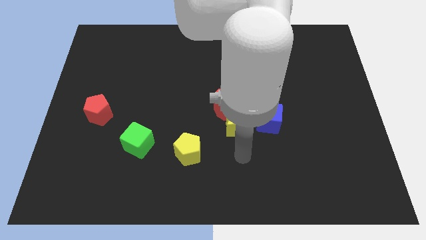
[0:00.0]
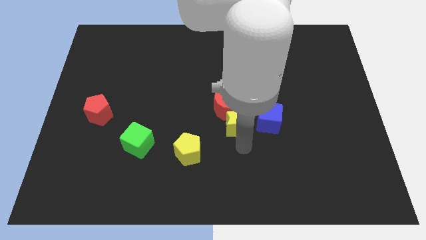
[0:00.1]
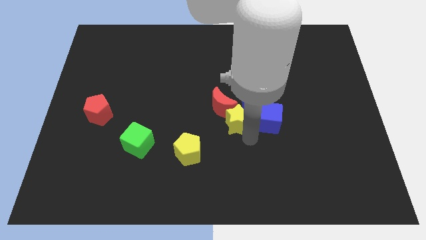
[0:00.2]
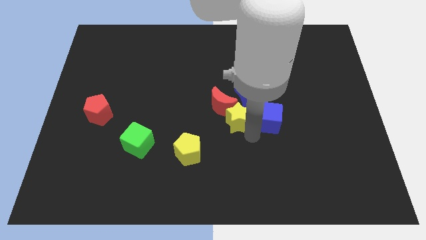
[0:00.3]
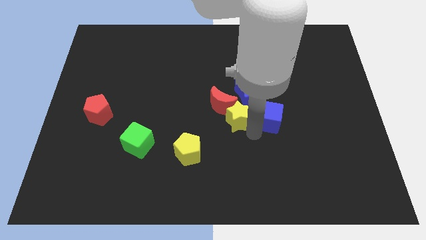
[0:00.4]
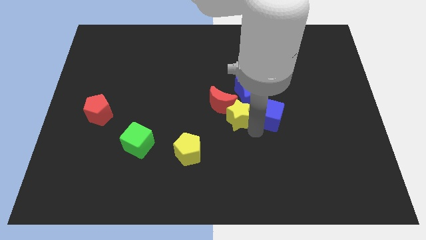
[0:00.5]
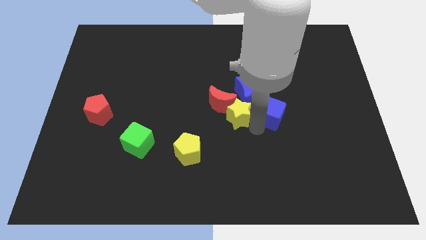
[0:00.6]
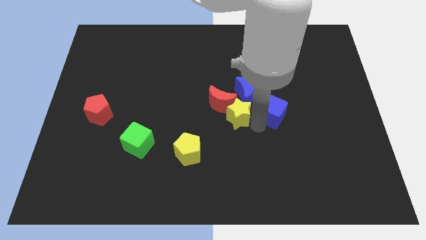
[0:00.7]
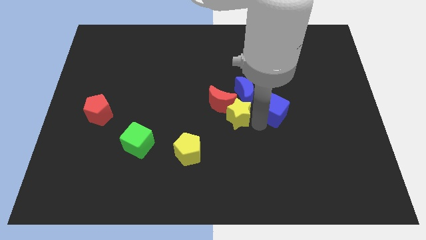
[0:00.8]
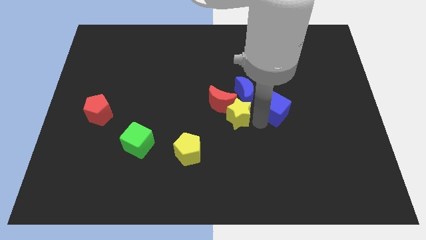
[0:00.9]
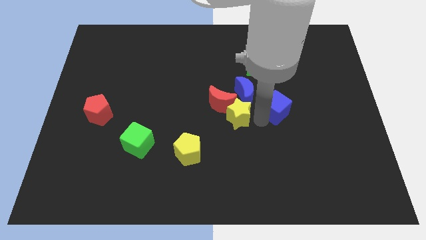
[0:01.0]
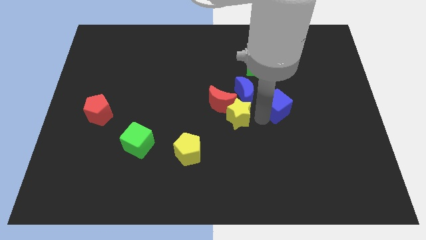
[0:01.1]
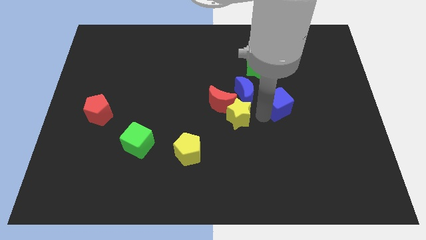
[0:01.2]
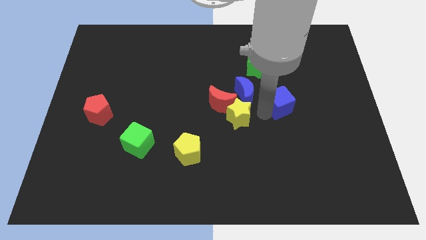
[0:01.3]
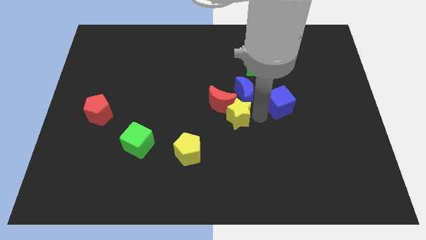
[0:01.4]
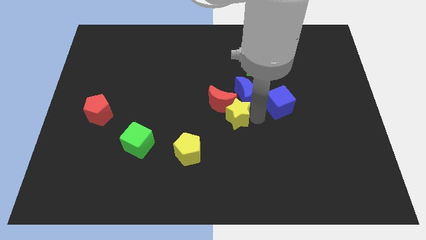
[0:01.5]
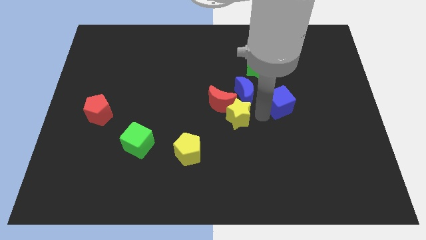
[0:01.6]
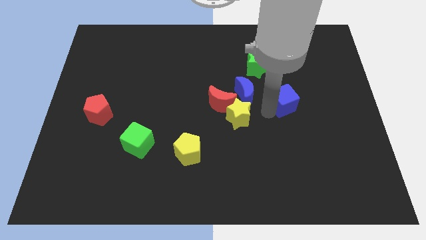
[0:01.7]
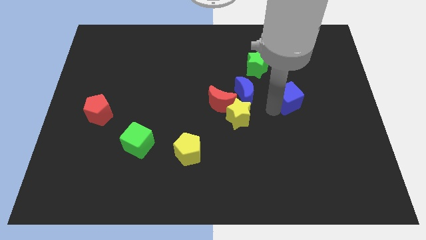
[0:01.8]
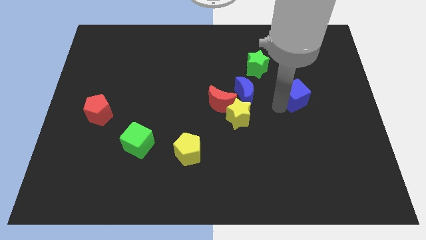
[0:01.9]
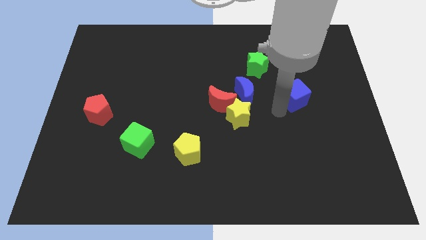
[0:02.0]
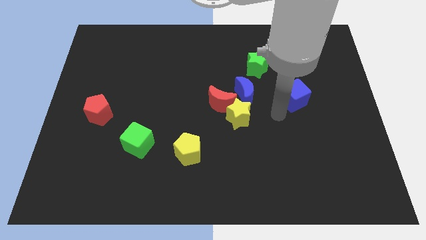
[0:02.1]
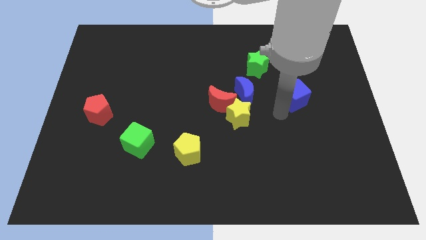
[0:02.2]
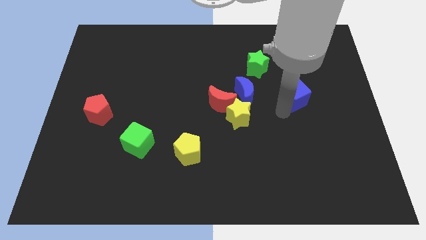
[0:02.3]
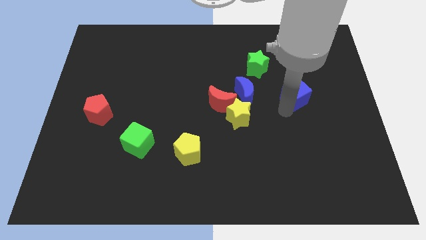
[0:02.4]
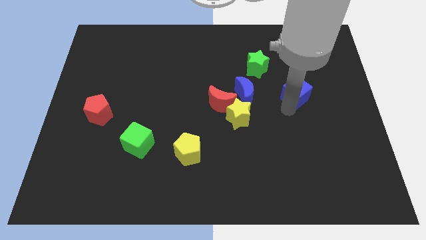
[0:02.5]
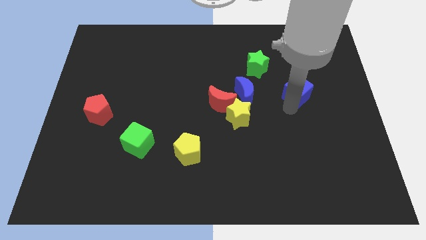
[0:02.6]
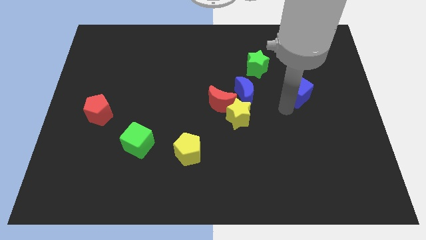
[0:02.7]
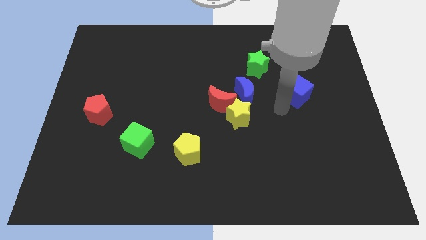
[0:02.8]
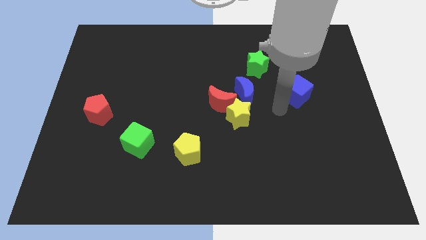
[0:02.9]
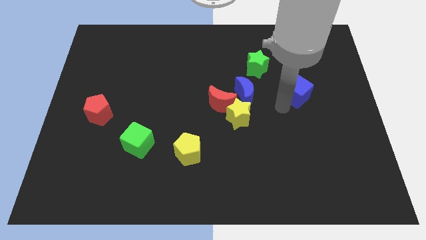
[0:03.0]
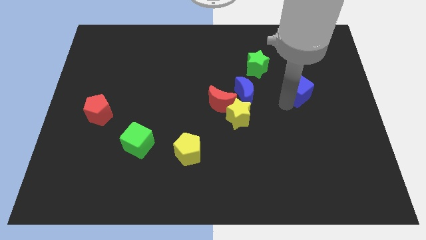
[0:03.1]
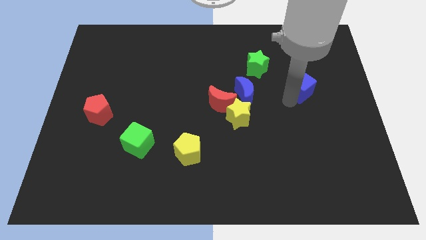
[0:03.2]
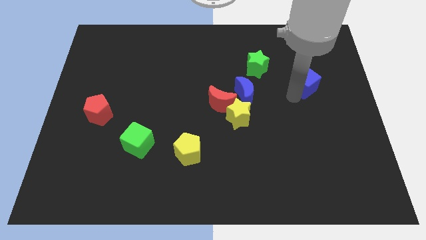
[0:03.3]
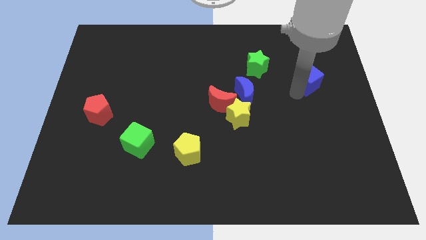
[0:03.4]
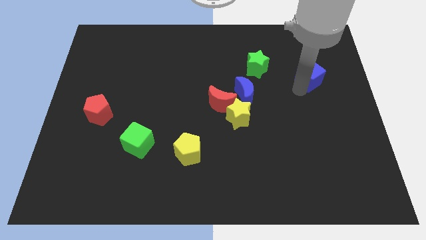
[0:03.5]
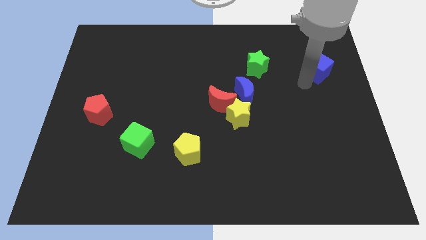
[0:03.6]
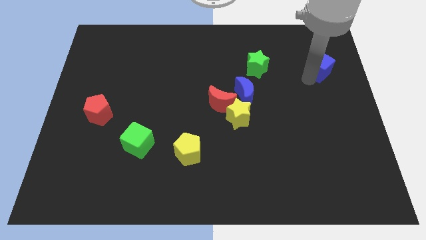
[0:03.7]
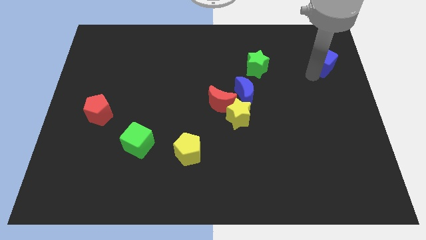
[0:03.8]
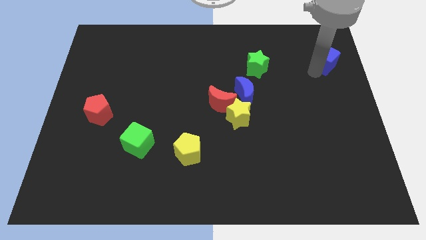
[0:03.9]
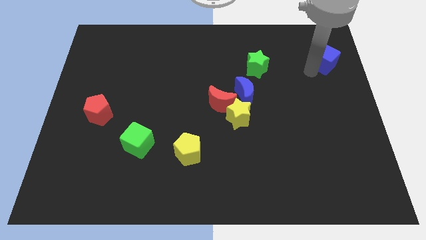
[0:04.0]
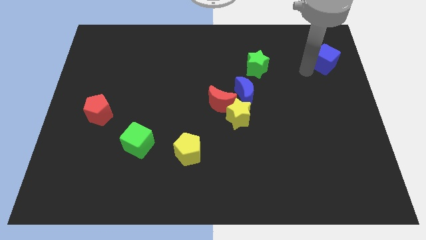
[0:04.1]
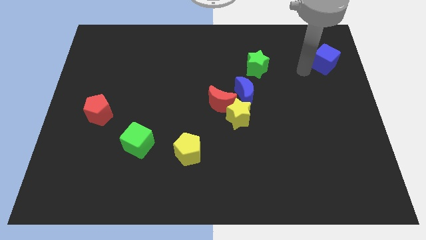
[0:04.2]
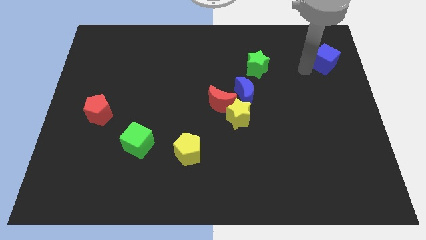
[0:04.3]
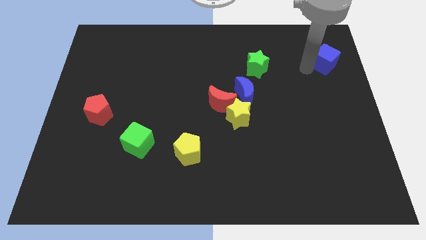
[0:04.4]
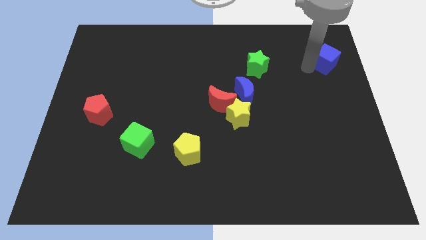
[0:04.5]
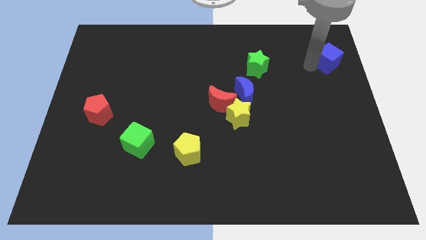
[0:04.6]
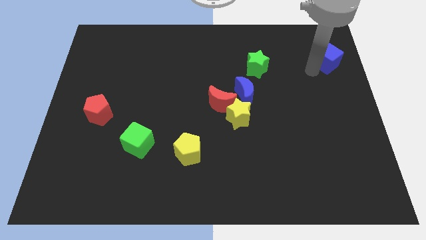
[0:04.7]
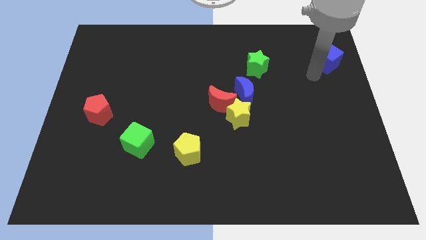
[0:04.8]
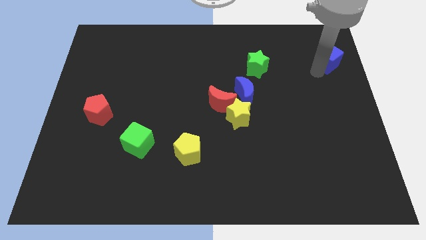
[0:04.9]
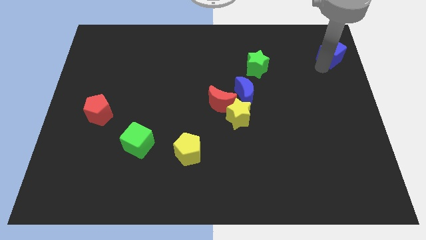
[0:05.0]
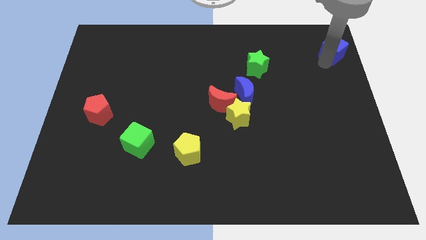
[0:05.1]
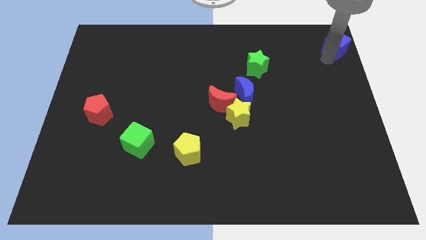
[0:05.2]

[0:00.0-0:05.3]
put the blue cube to the top right

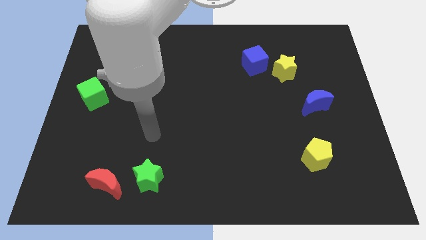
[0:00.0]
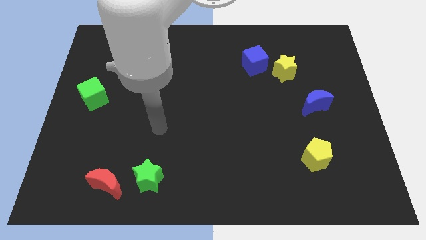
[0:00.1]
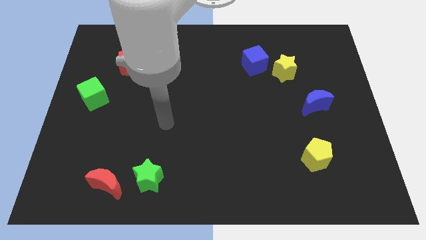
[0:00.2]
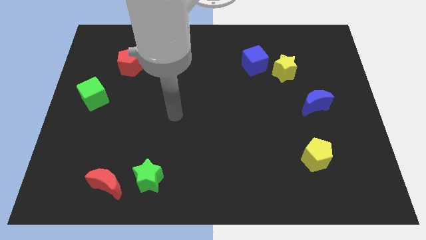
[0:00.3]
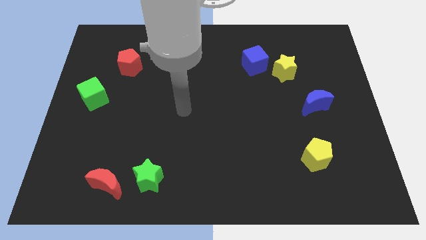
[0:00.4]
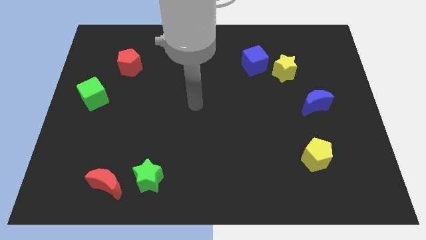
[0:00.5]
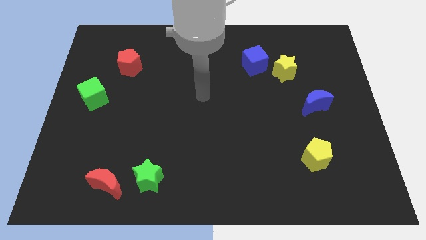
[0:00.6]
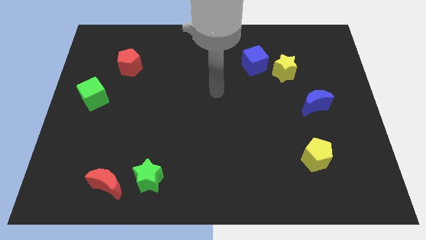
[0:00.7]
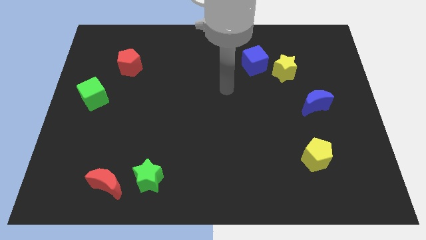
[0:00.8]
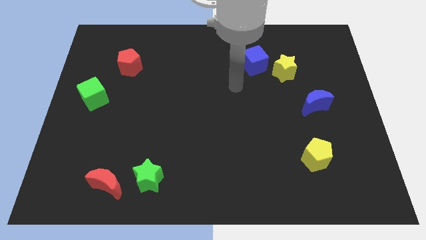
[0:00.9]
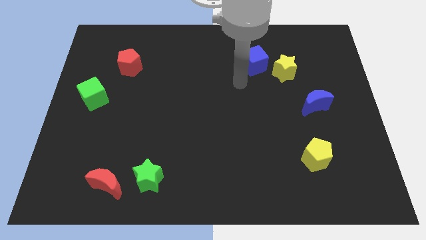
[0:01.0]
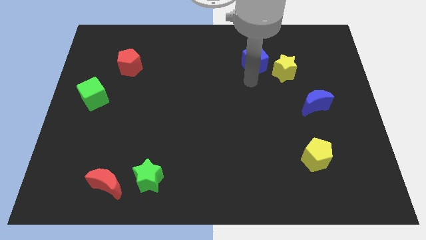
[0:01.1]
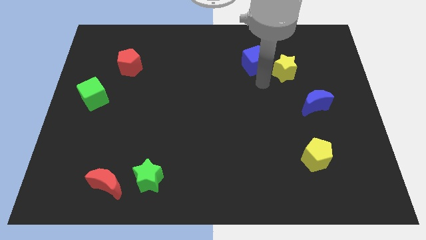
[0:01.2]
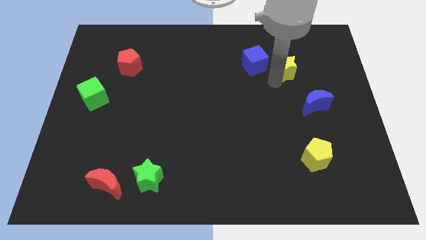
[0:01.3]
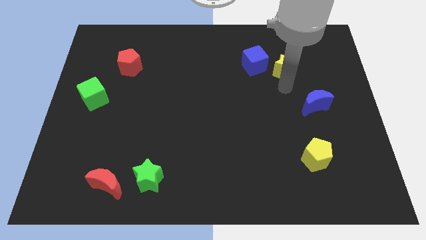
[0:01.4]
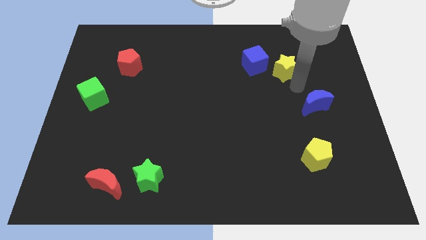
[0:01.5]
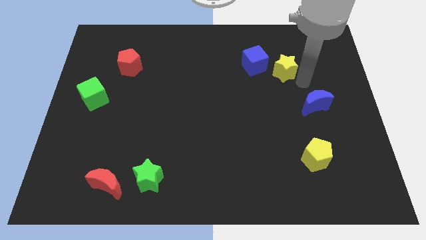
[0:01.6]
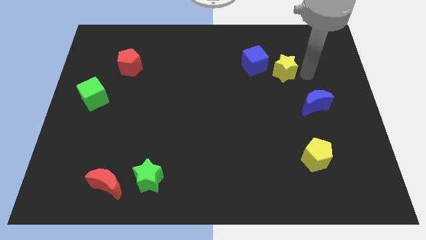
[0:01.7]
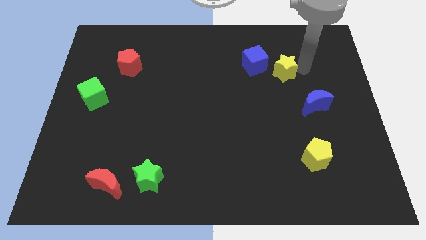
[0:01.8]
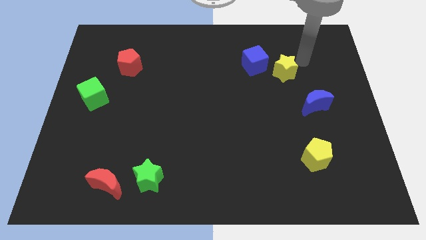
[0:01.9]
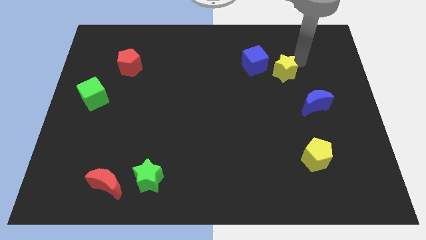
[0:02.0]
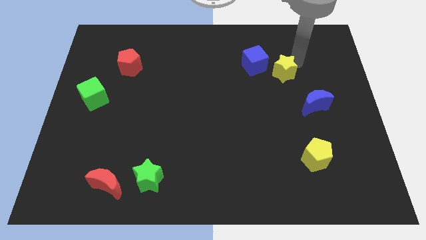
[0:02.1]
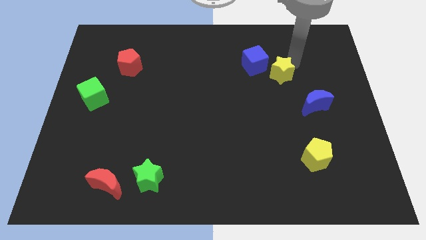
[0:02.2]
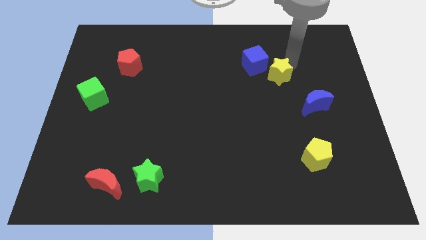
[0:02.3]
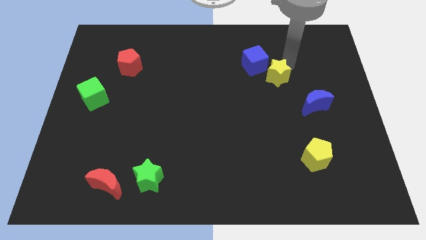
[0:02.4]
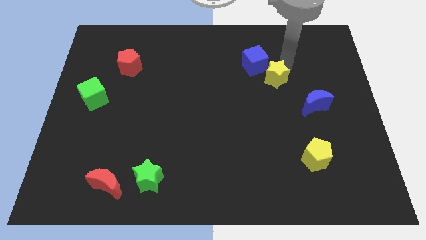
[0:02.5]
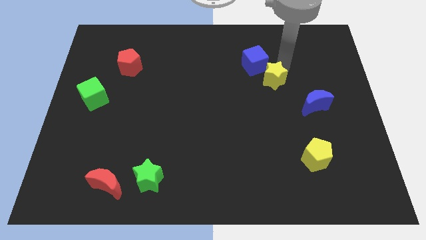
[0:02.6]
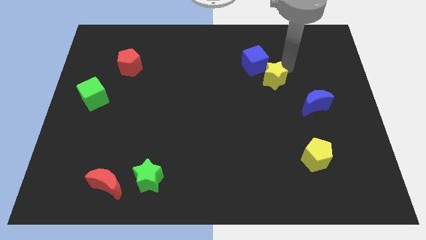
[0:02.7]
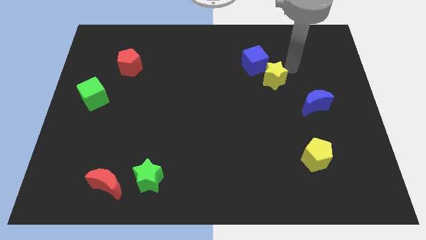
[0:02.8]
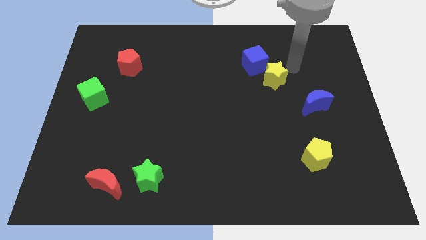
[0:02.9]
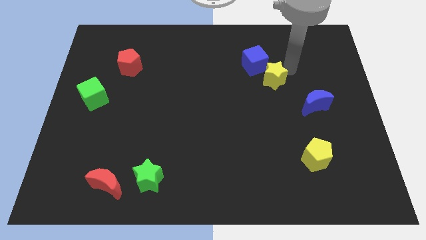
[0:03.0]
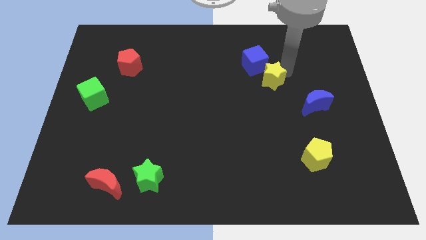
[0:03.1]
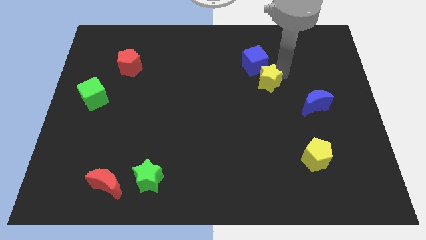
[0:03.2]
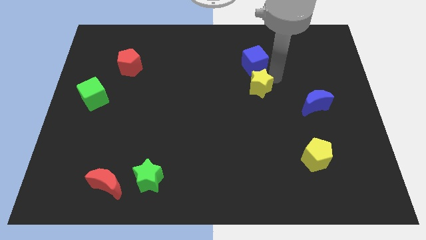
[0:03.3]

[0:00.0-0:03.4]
move the yellow star to the center
